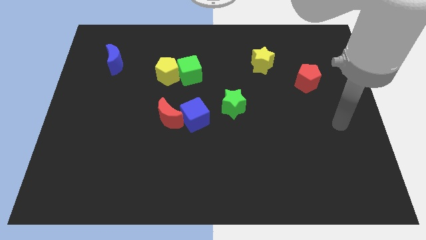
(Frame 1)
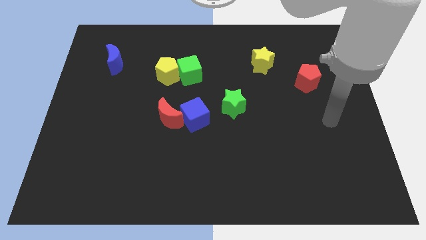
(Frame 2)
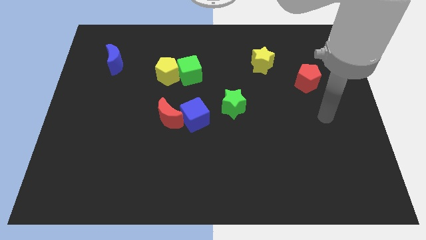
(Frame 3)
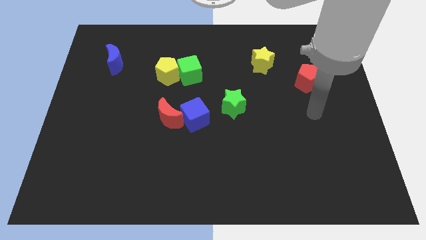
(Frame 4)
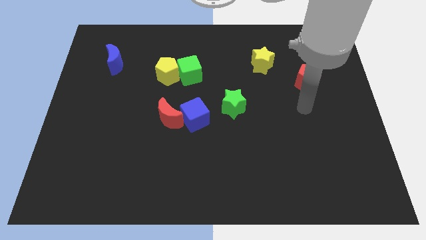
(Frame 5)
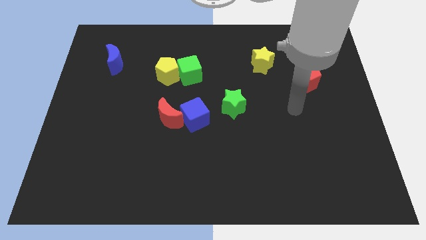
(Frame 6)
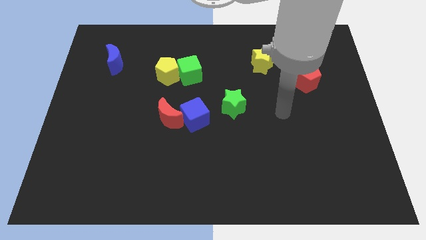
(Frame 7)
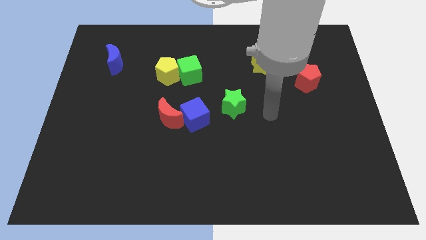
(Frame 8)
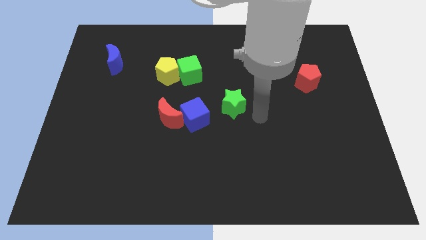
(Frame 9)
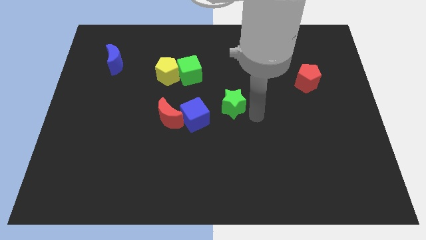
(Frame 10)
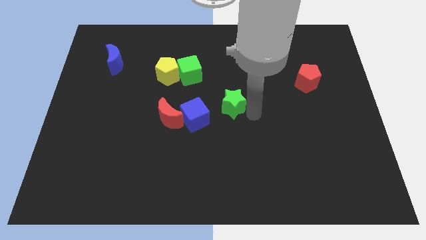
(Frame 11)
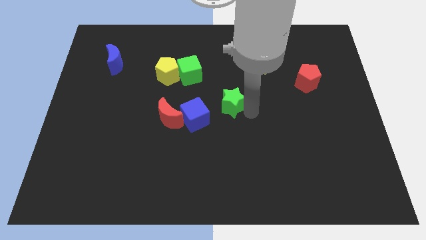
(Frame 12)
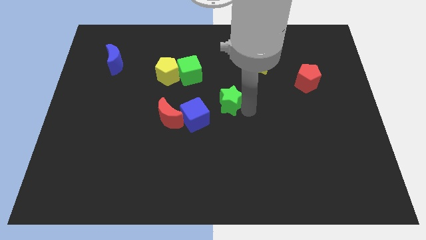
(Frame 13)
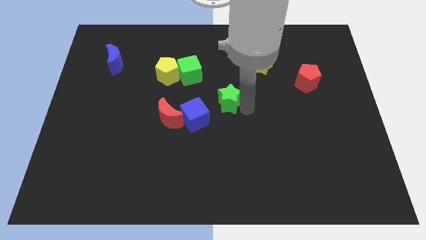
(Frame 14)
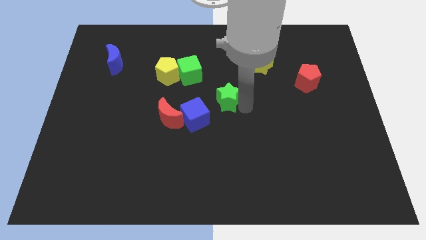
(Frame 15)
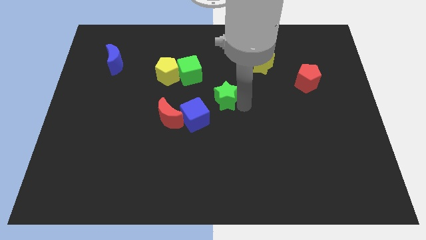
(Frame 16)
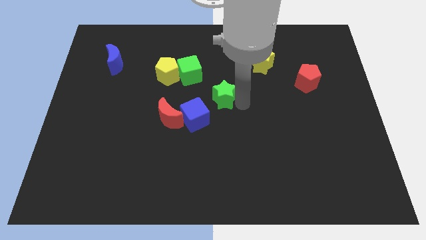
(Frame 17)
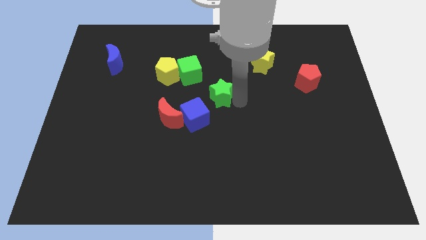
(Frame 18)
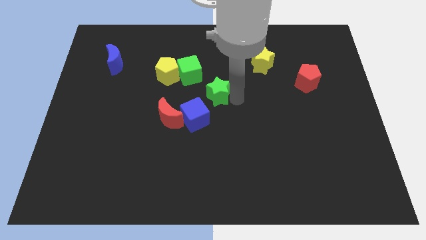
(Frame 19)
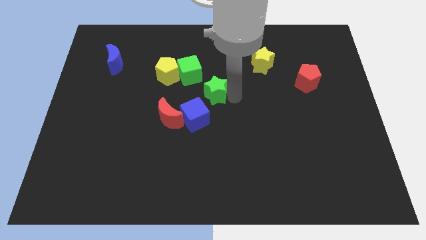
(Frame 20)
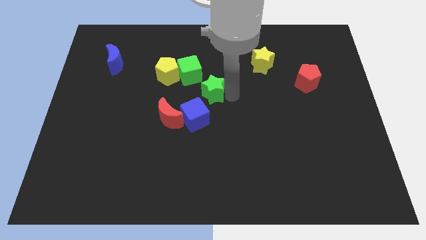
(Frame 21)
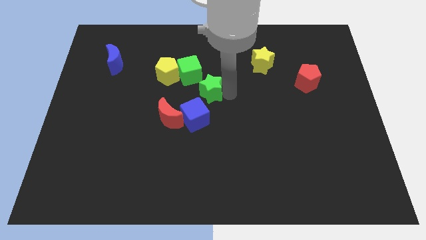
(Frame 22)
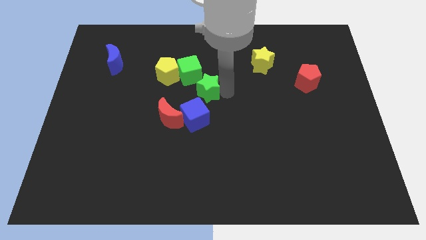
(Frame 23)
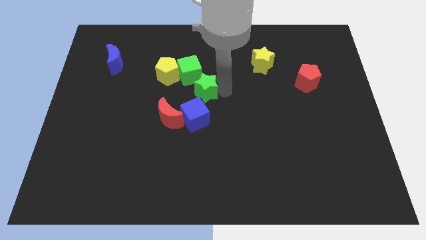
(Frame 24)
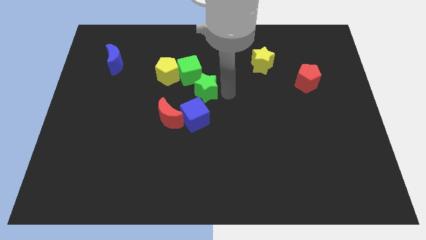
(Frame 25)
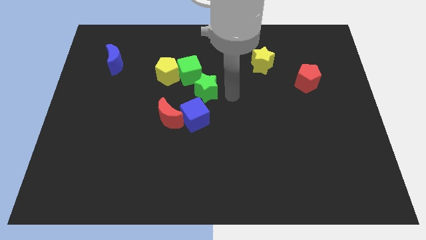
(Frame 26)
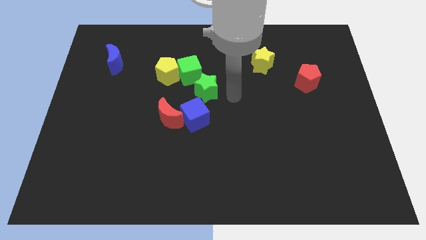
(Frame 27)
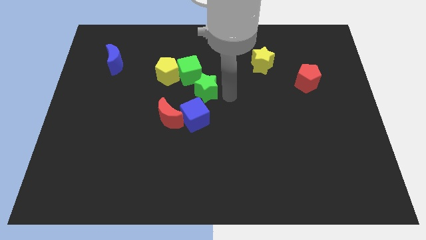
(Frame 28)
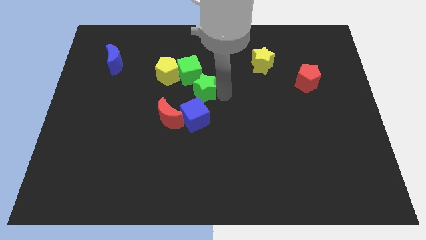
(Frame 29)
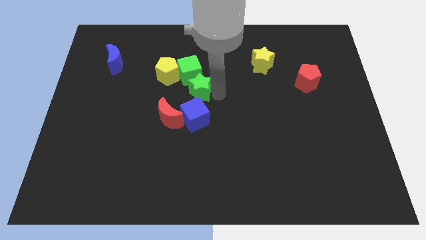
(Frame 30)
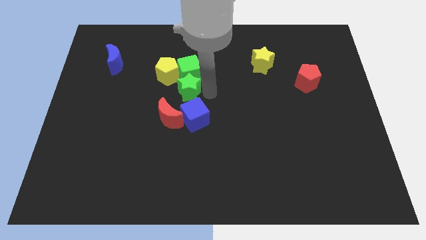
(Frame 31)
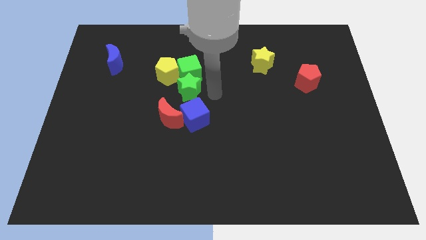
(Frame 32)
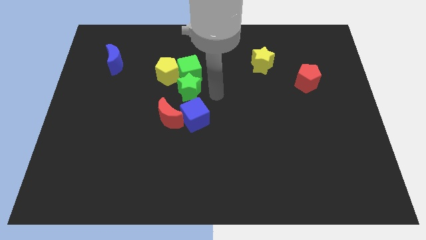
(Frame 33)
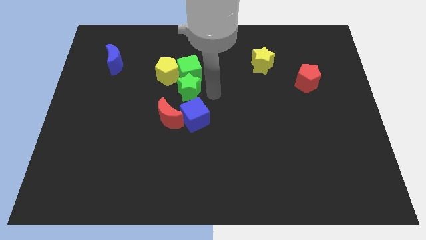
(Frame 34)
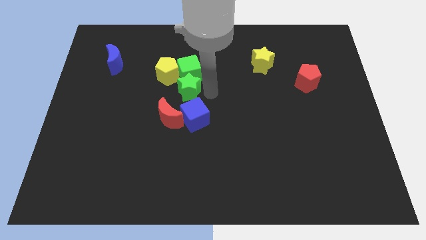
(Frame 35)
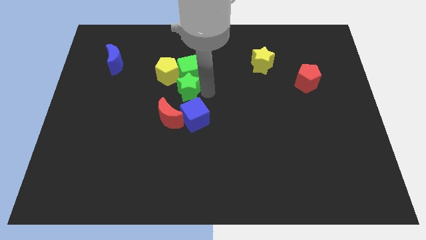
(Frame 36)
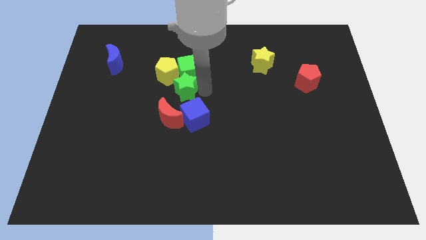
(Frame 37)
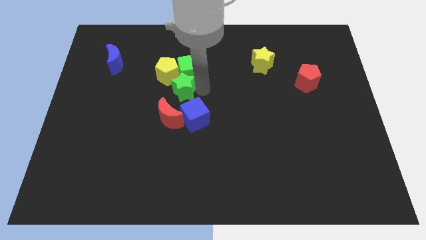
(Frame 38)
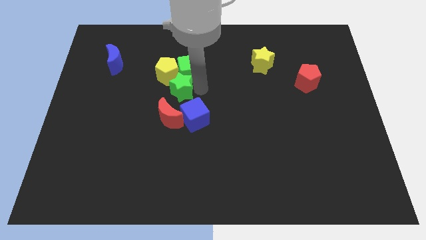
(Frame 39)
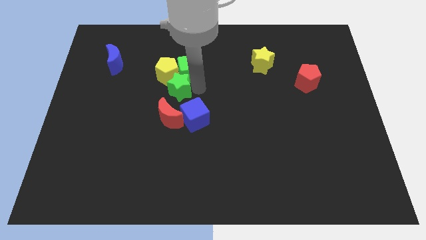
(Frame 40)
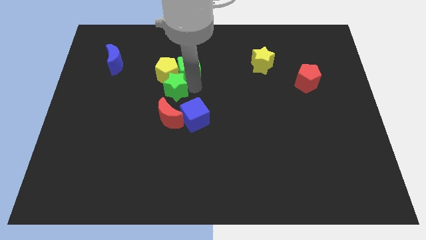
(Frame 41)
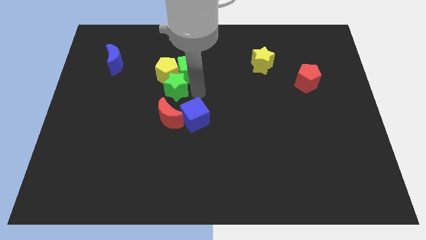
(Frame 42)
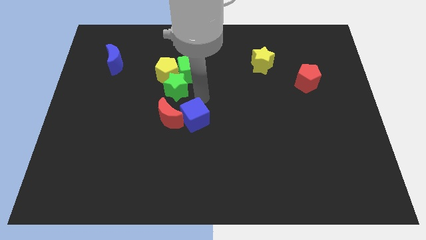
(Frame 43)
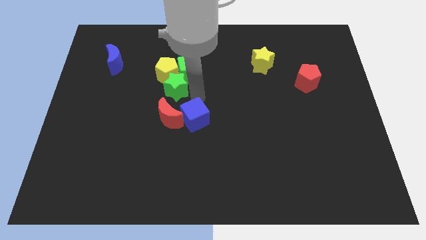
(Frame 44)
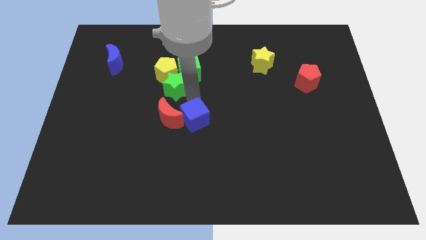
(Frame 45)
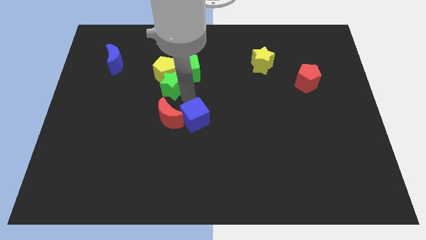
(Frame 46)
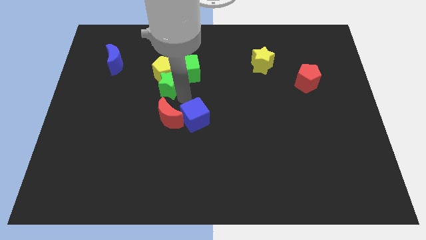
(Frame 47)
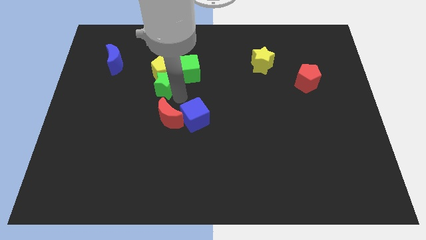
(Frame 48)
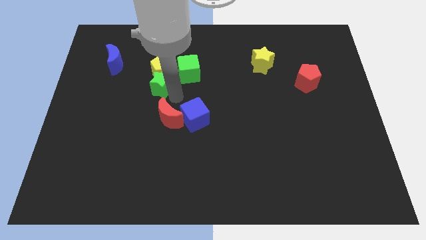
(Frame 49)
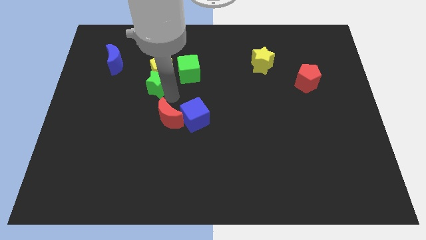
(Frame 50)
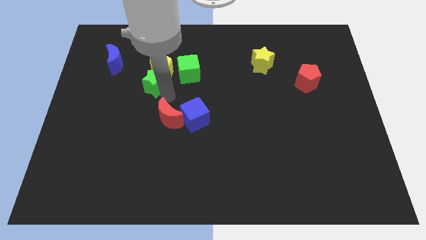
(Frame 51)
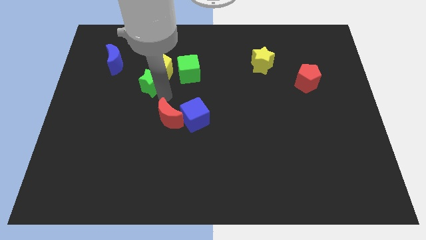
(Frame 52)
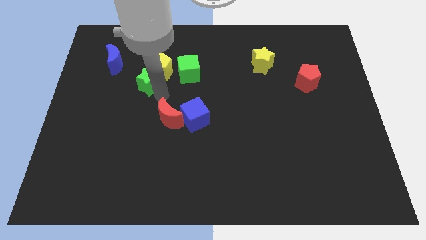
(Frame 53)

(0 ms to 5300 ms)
push the green star diagonally down and to the right of the blue moon

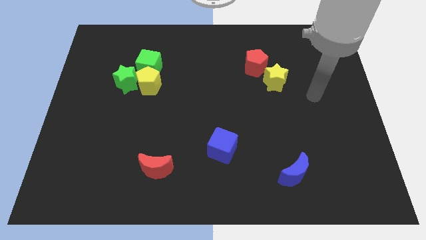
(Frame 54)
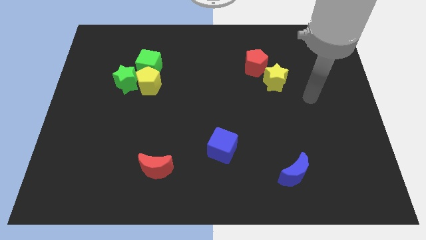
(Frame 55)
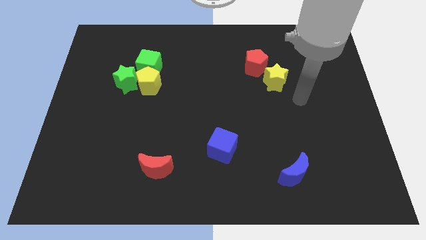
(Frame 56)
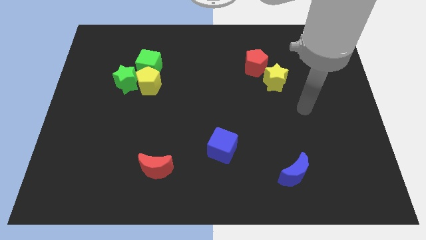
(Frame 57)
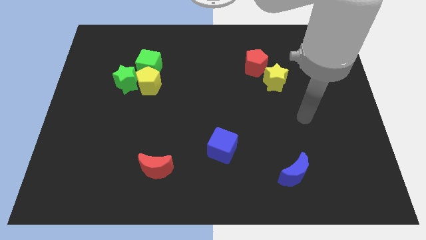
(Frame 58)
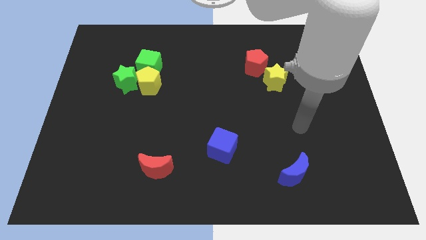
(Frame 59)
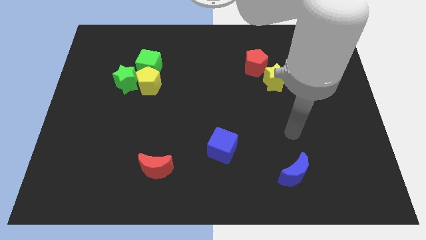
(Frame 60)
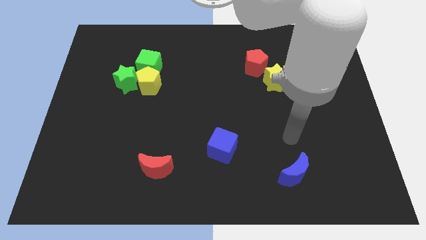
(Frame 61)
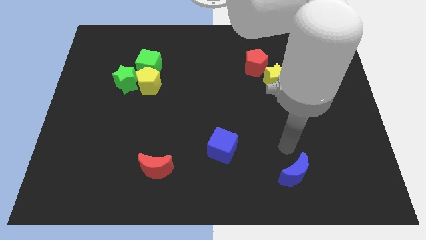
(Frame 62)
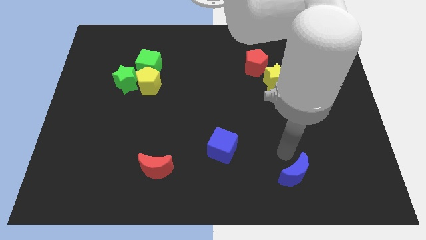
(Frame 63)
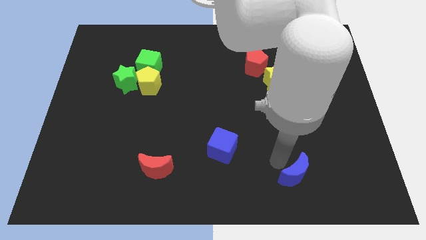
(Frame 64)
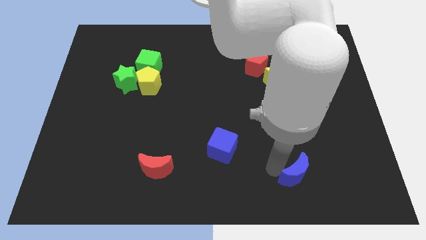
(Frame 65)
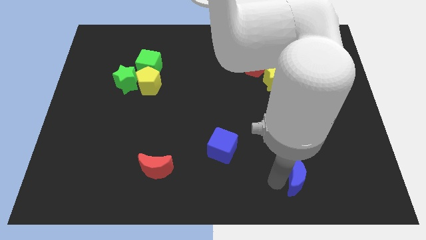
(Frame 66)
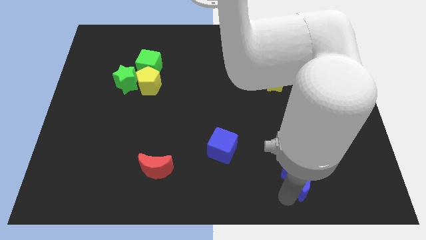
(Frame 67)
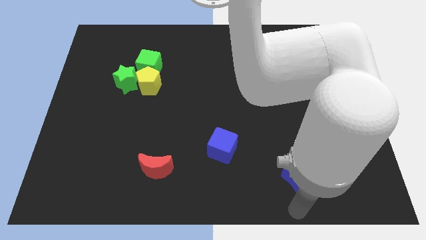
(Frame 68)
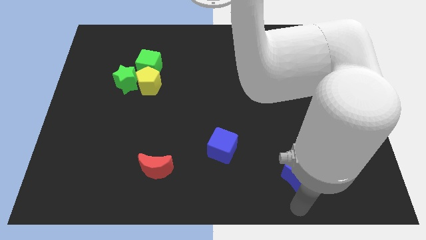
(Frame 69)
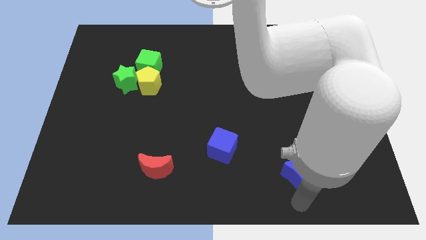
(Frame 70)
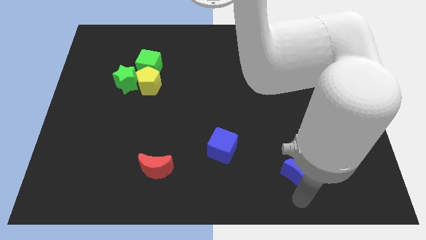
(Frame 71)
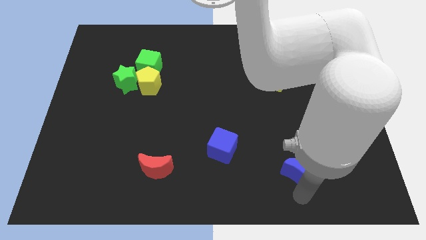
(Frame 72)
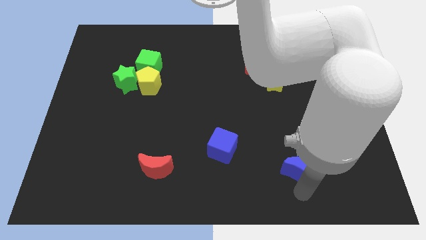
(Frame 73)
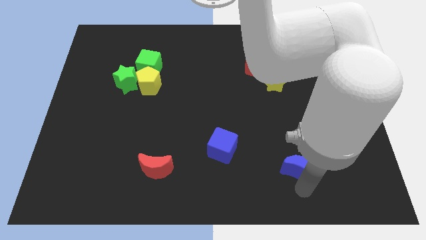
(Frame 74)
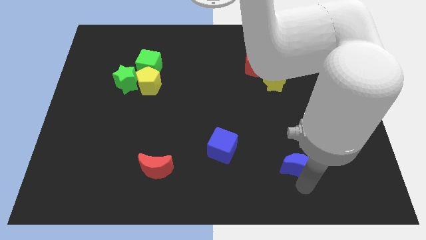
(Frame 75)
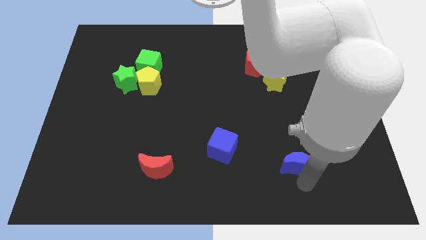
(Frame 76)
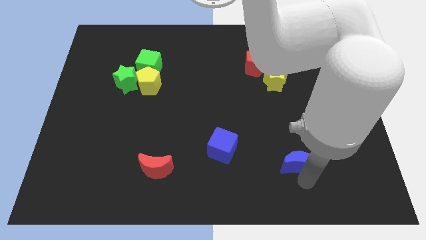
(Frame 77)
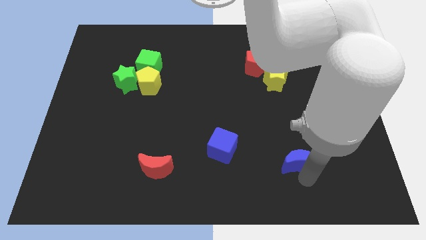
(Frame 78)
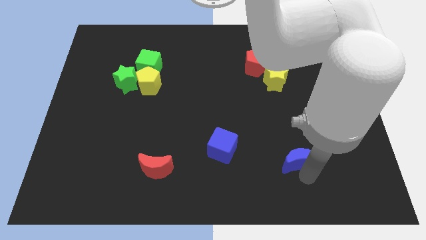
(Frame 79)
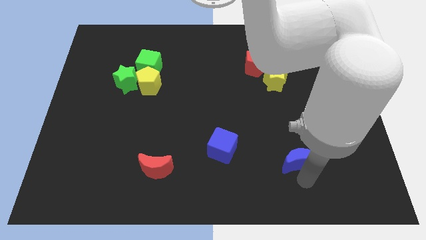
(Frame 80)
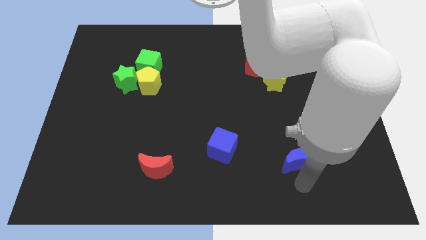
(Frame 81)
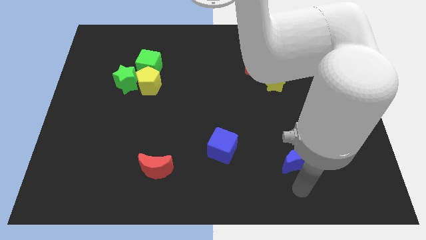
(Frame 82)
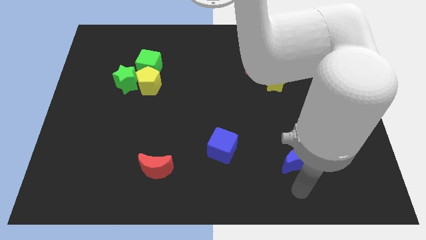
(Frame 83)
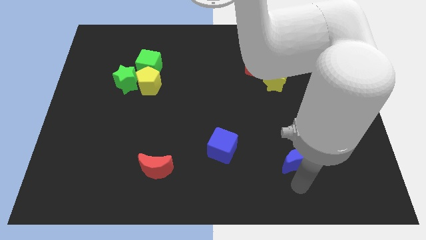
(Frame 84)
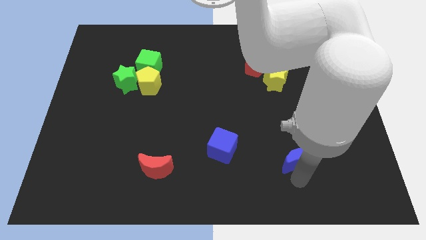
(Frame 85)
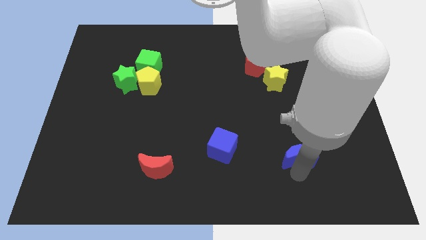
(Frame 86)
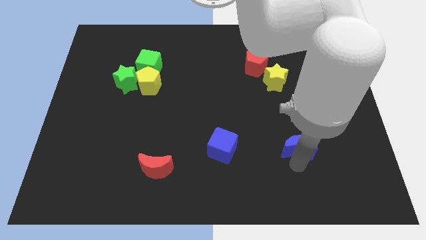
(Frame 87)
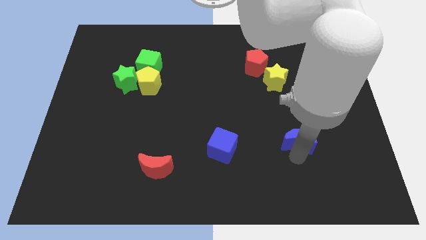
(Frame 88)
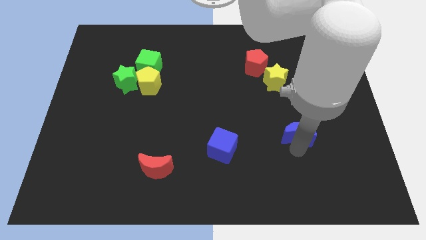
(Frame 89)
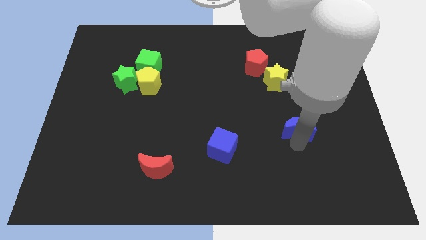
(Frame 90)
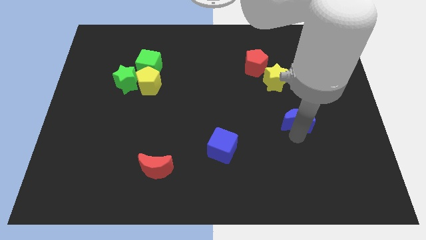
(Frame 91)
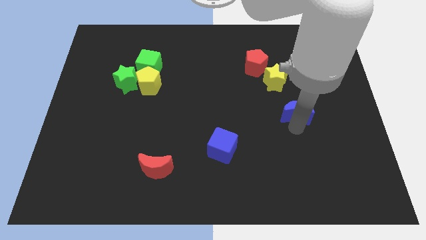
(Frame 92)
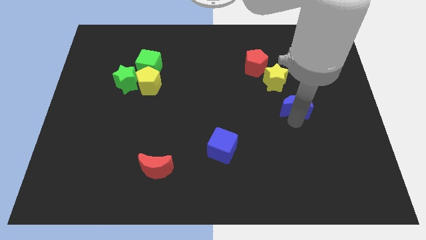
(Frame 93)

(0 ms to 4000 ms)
slide the blue moon to the bottom right side of the yellow star
